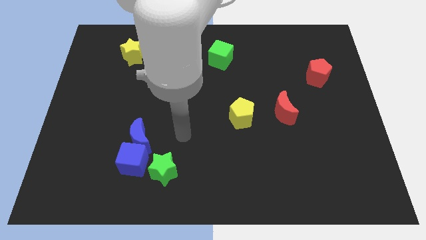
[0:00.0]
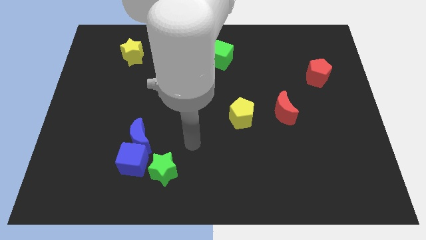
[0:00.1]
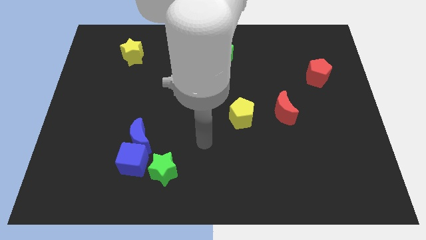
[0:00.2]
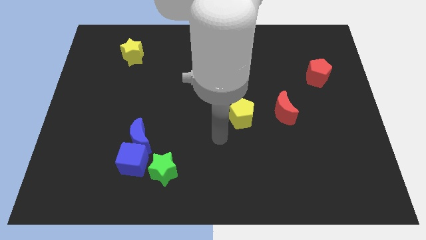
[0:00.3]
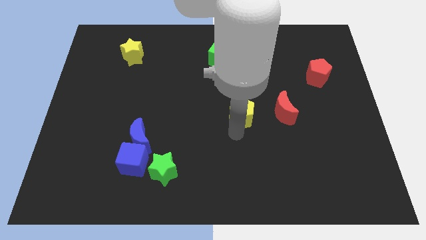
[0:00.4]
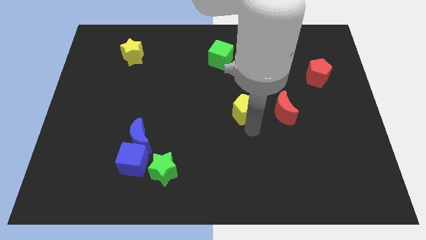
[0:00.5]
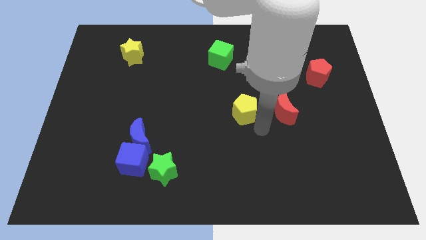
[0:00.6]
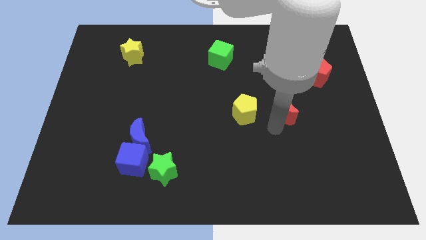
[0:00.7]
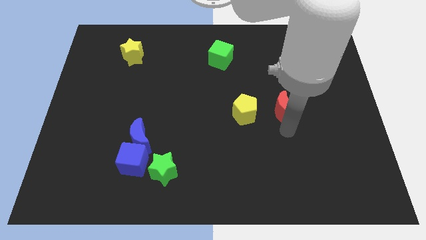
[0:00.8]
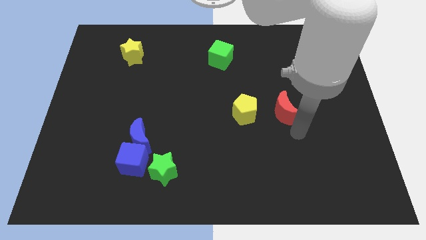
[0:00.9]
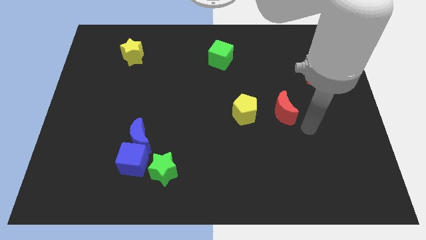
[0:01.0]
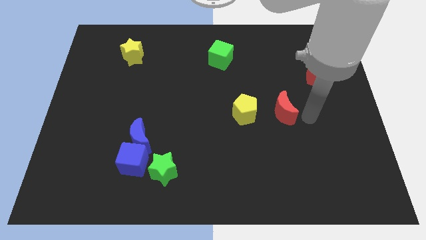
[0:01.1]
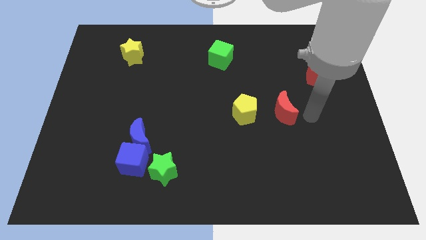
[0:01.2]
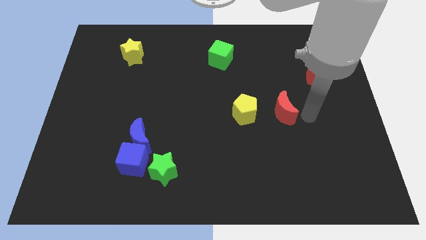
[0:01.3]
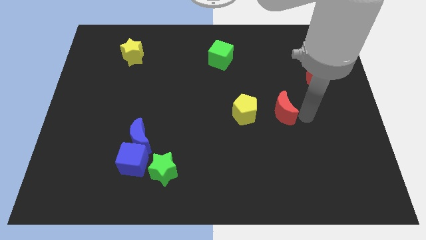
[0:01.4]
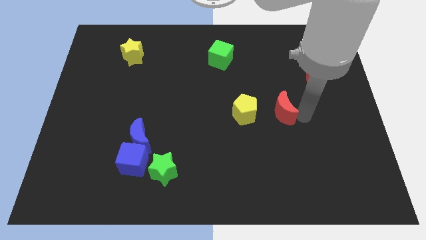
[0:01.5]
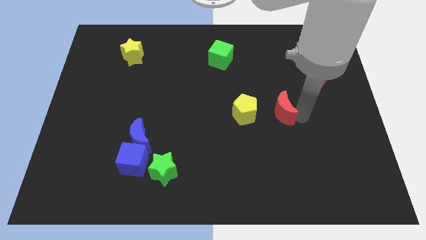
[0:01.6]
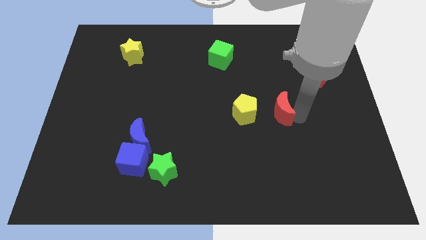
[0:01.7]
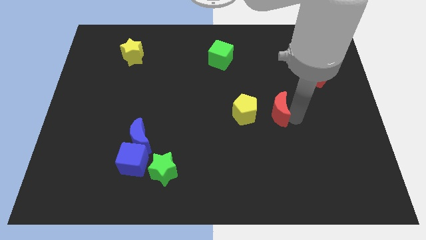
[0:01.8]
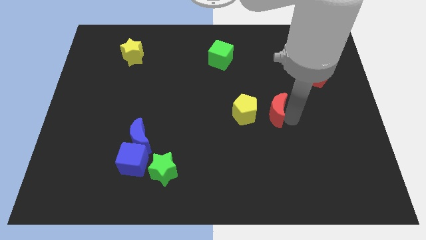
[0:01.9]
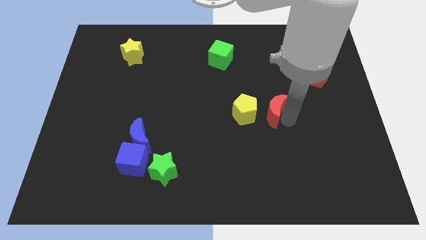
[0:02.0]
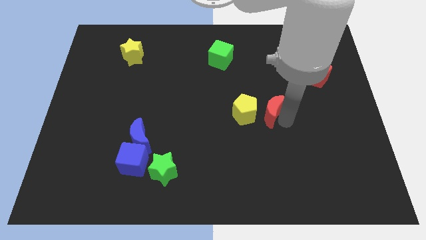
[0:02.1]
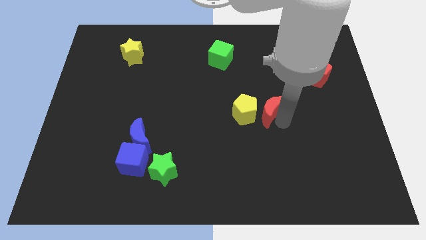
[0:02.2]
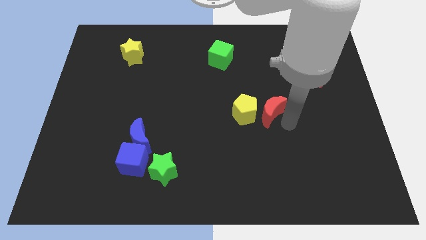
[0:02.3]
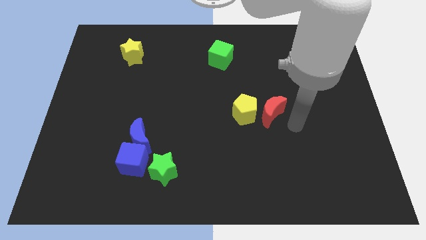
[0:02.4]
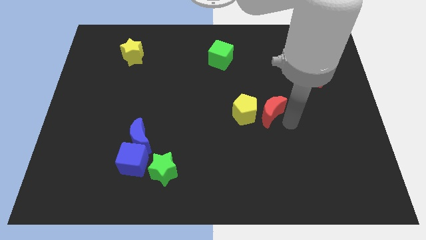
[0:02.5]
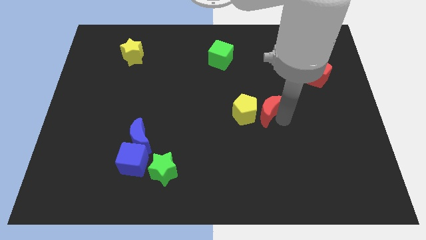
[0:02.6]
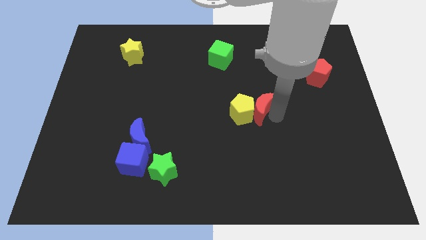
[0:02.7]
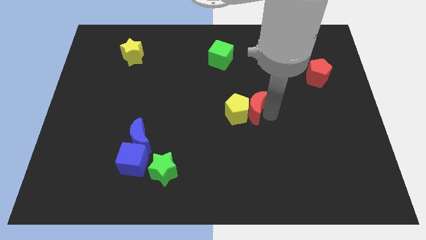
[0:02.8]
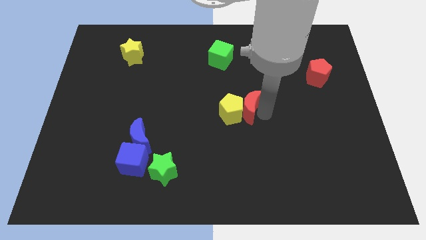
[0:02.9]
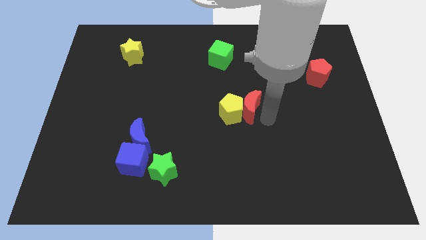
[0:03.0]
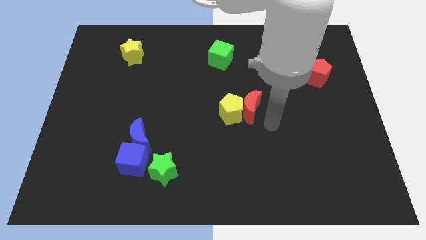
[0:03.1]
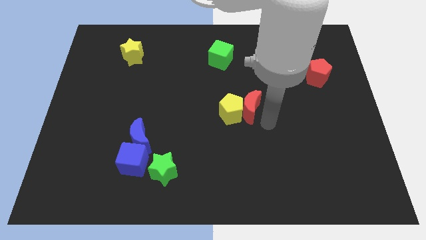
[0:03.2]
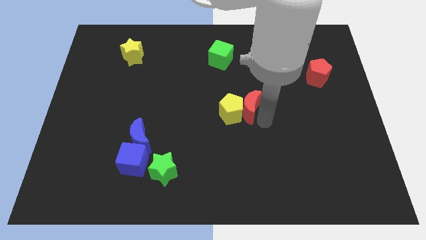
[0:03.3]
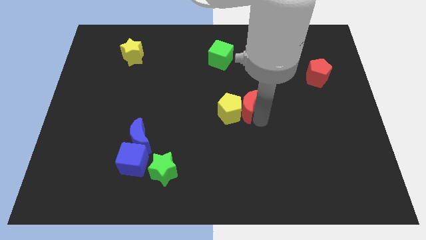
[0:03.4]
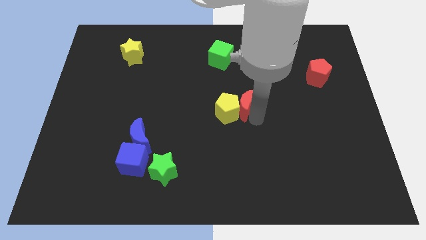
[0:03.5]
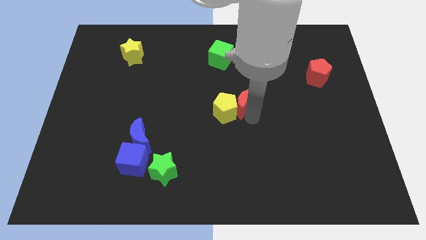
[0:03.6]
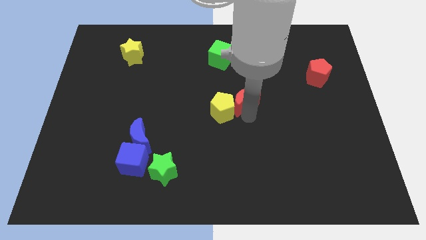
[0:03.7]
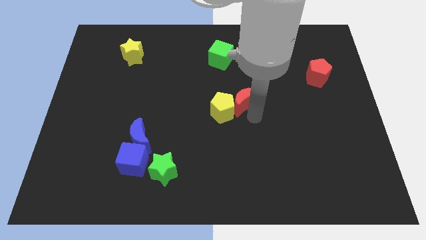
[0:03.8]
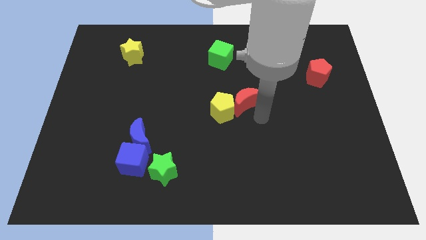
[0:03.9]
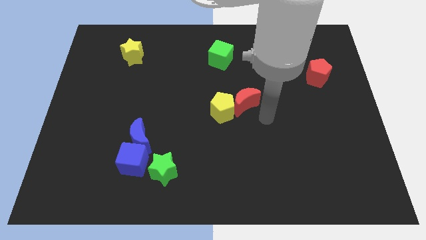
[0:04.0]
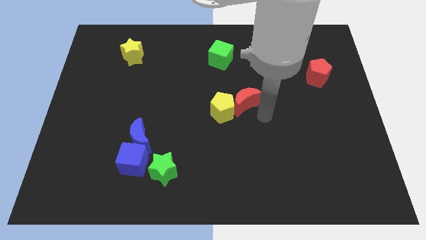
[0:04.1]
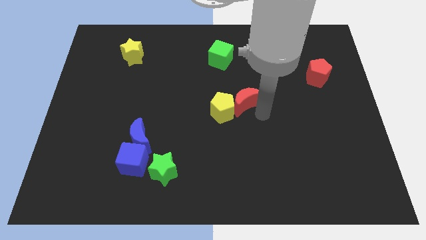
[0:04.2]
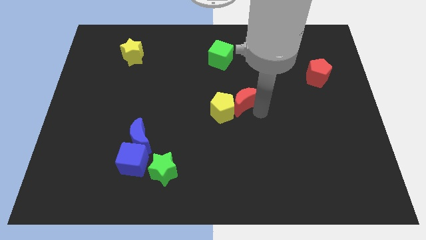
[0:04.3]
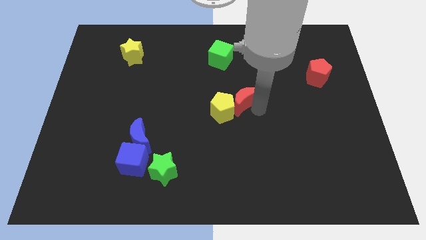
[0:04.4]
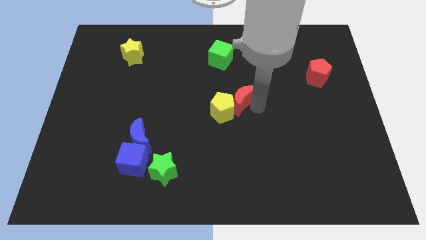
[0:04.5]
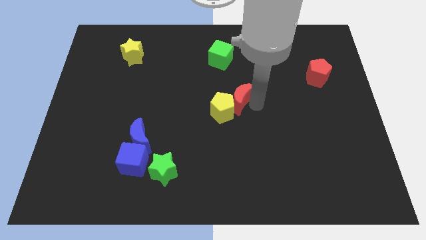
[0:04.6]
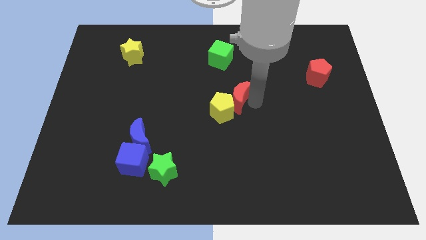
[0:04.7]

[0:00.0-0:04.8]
move the red moon to the bottom side of the green cube

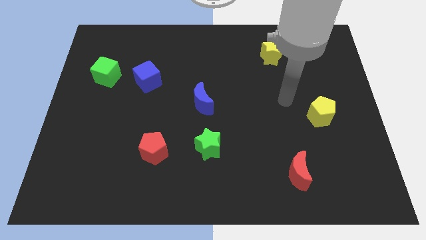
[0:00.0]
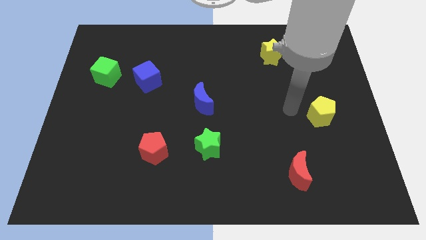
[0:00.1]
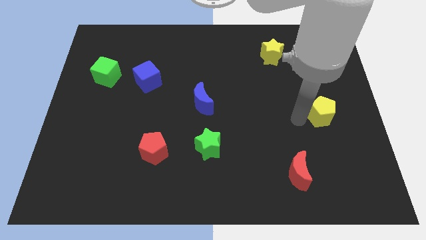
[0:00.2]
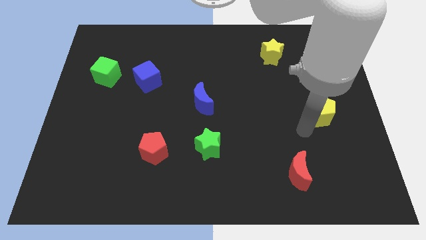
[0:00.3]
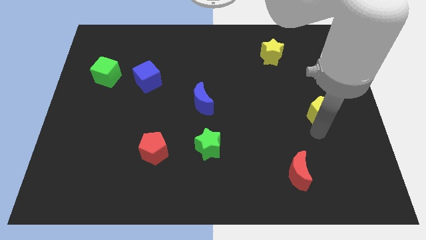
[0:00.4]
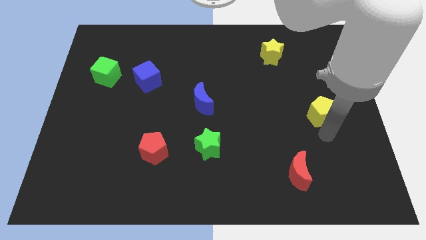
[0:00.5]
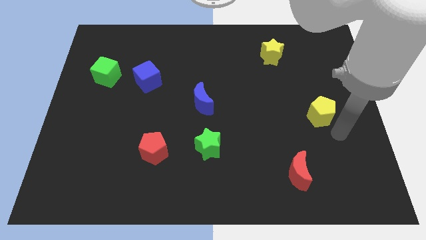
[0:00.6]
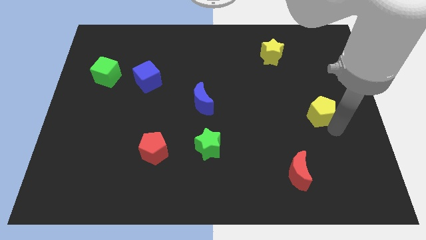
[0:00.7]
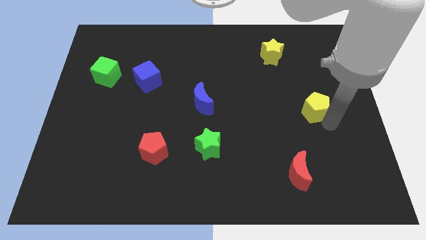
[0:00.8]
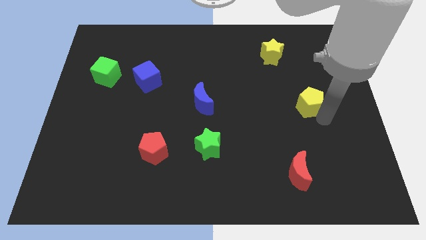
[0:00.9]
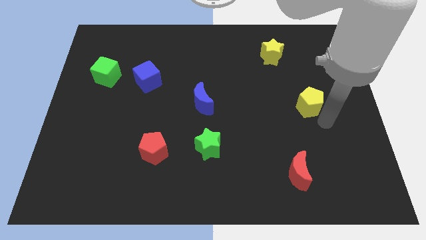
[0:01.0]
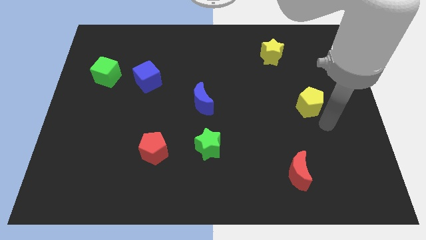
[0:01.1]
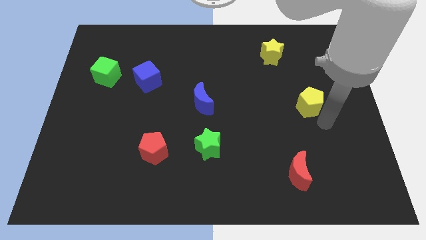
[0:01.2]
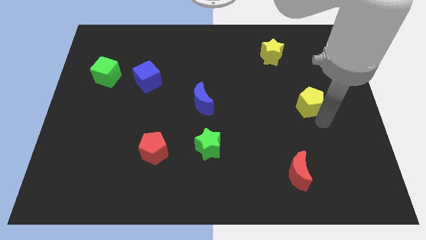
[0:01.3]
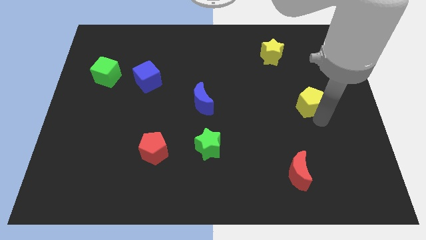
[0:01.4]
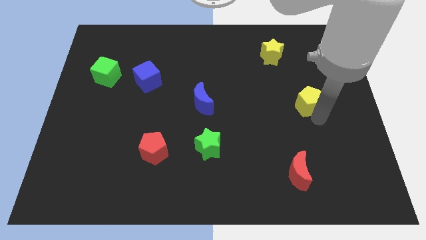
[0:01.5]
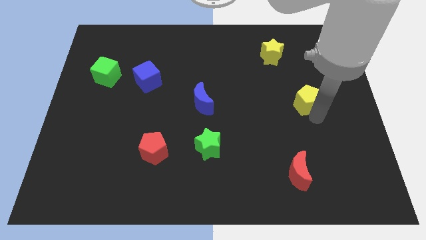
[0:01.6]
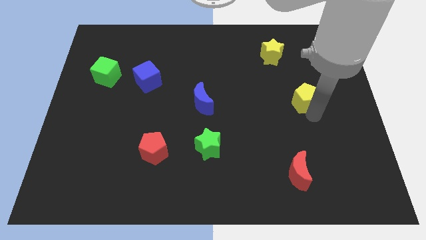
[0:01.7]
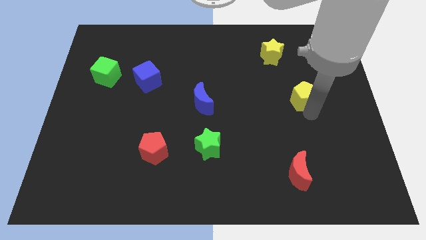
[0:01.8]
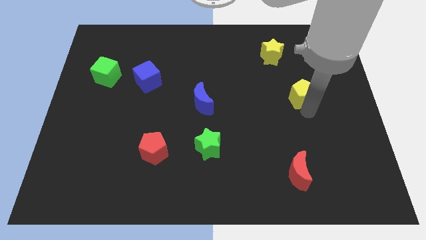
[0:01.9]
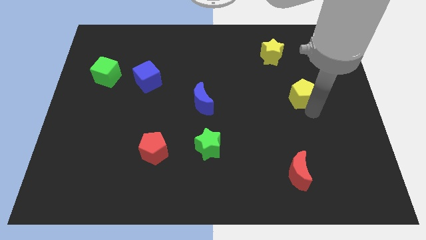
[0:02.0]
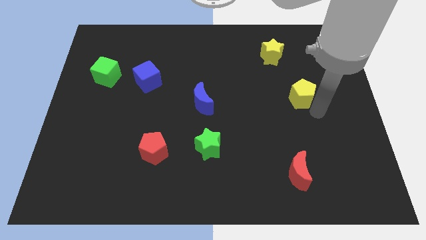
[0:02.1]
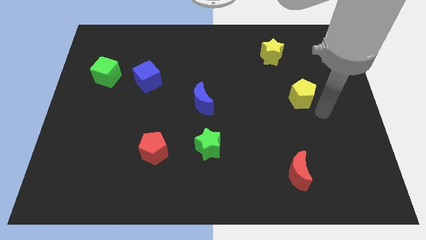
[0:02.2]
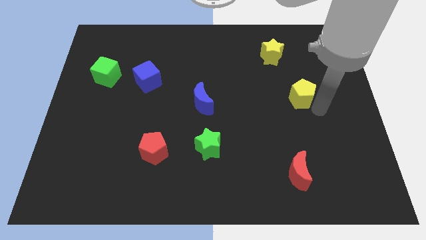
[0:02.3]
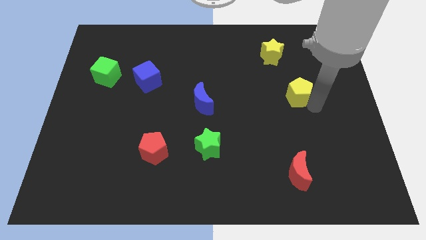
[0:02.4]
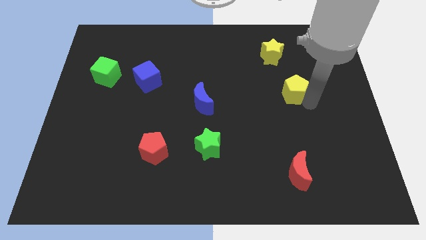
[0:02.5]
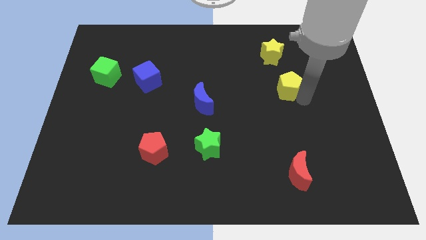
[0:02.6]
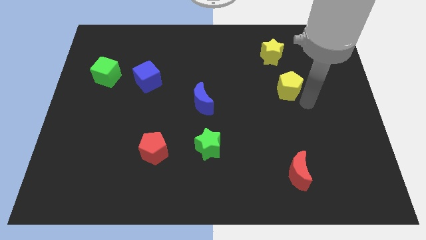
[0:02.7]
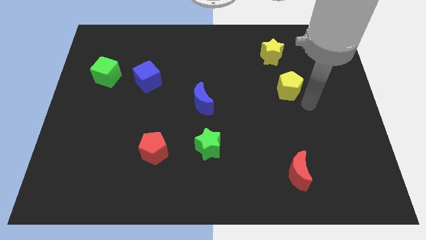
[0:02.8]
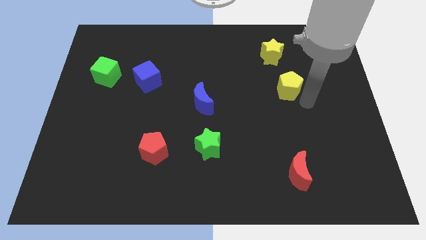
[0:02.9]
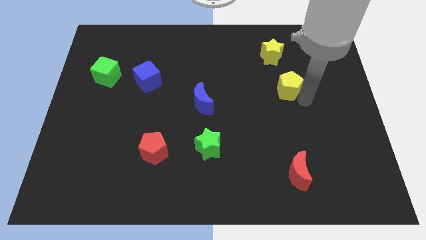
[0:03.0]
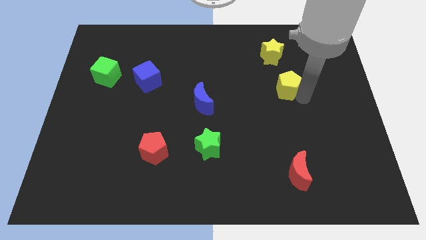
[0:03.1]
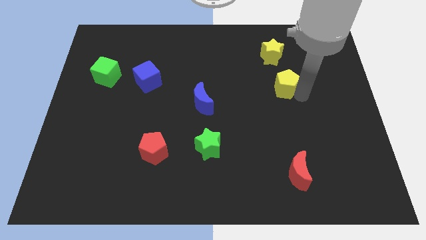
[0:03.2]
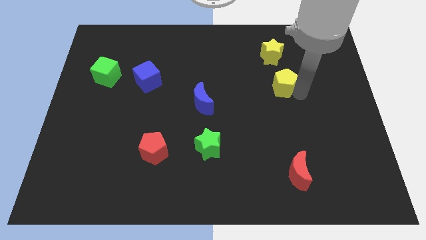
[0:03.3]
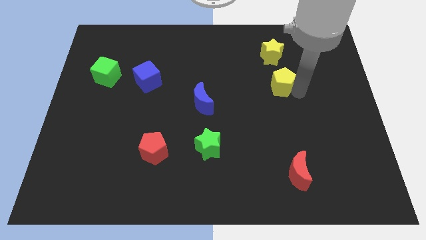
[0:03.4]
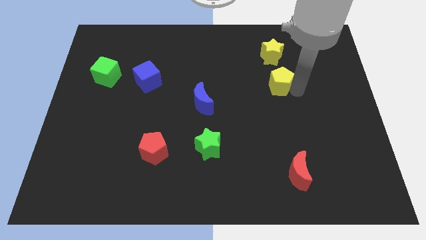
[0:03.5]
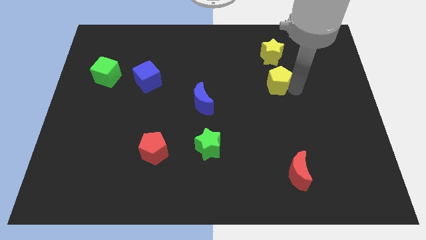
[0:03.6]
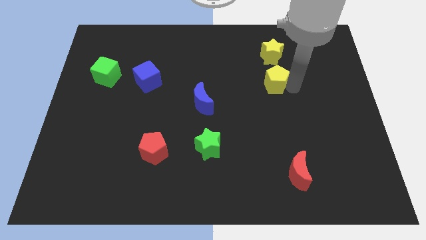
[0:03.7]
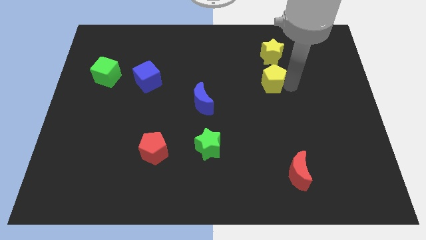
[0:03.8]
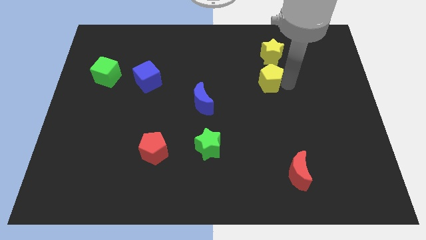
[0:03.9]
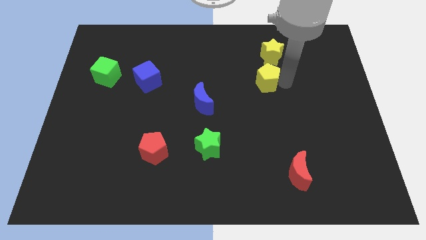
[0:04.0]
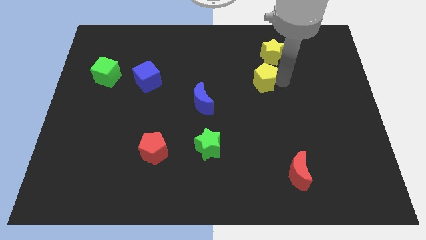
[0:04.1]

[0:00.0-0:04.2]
push the yellow pentagon diagonally down and to the left of the yellow star
